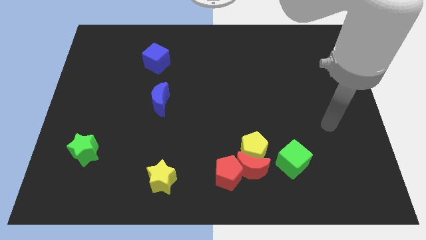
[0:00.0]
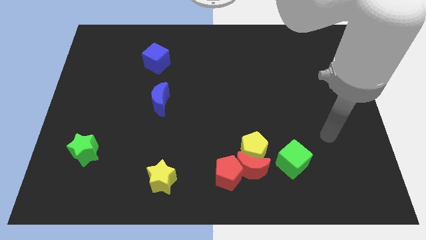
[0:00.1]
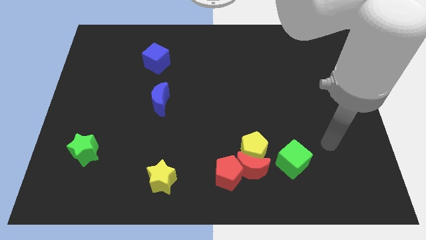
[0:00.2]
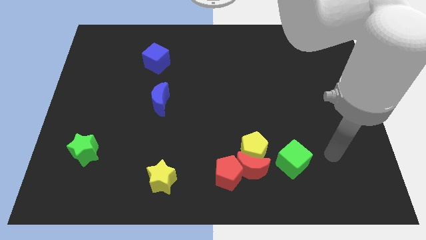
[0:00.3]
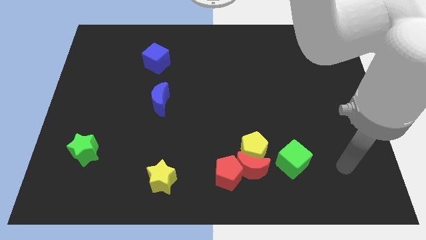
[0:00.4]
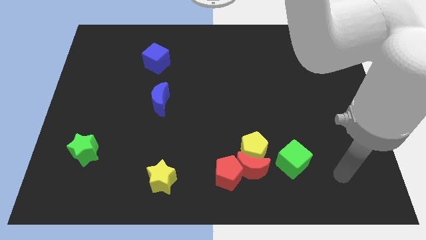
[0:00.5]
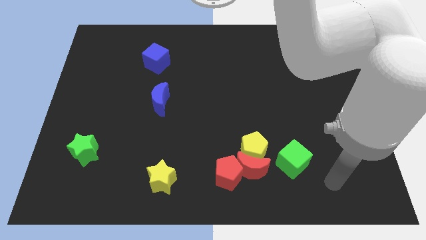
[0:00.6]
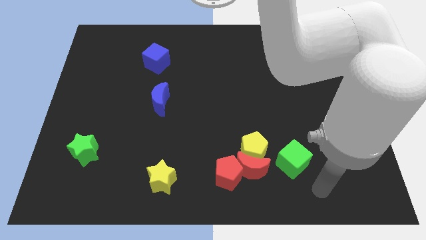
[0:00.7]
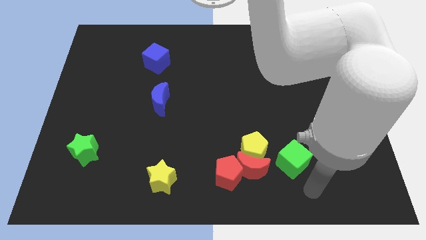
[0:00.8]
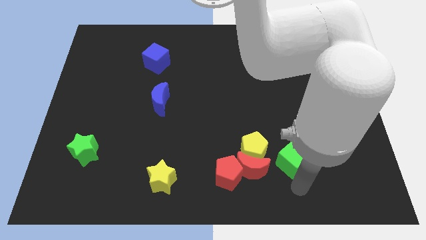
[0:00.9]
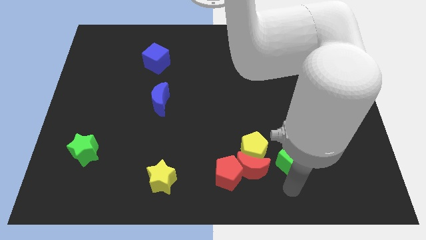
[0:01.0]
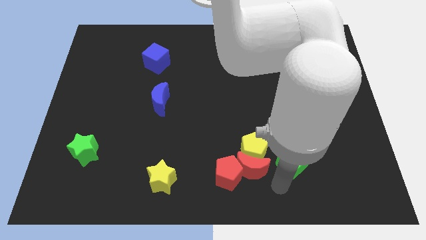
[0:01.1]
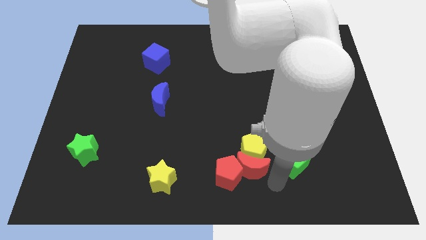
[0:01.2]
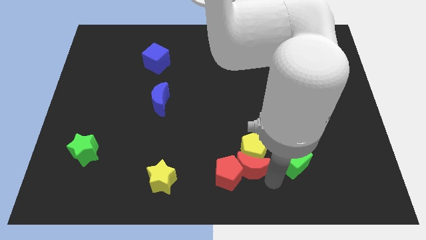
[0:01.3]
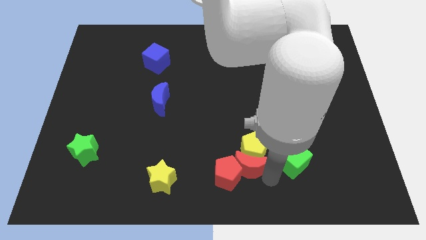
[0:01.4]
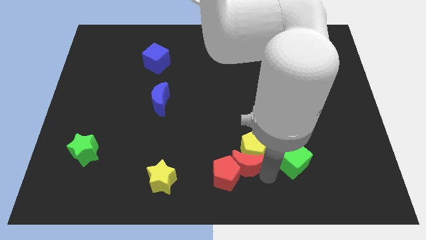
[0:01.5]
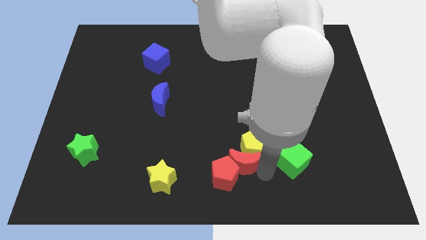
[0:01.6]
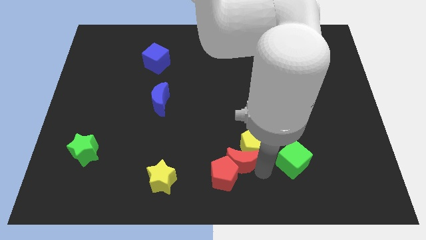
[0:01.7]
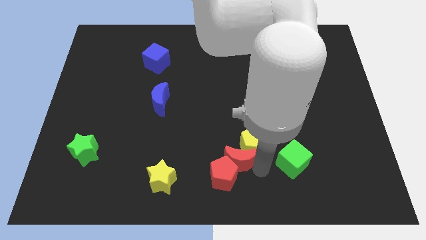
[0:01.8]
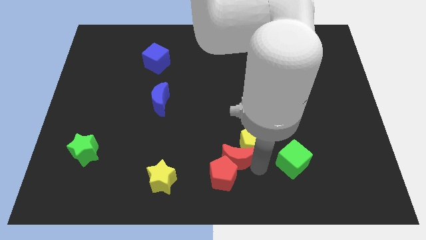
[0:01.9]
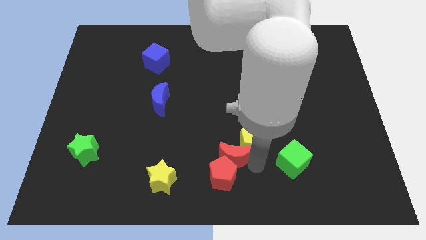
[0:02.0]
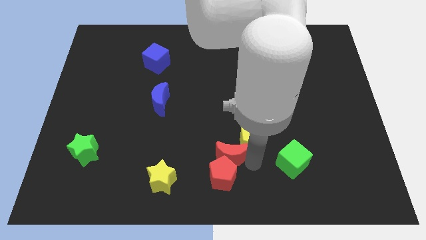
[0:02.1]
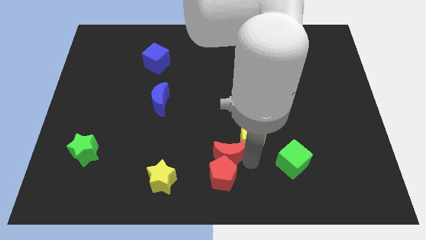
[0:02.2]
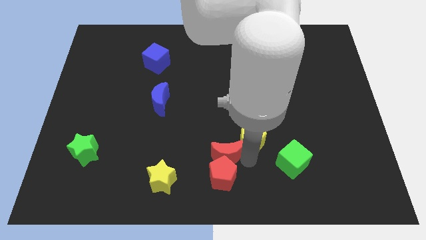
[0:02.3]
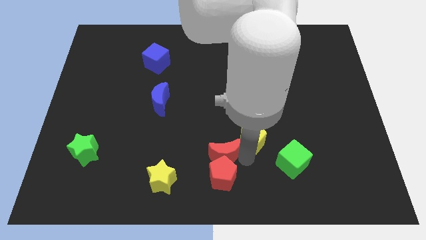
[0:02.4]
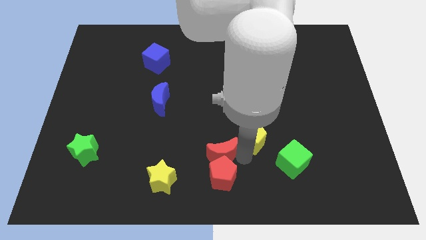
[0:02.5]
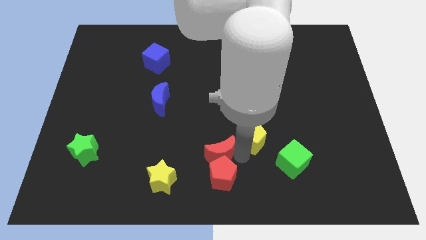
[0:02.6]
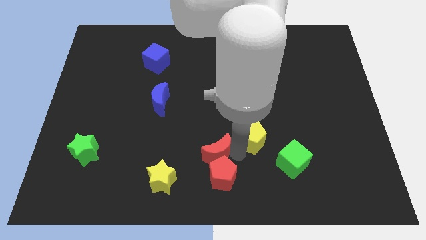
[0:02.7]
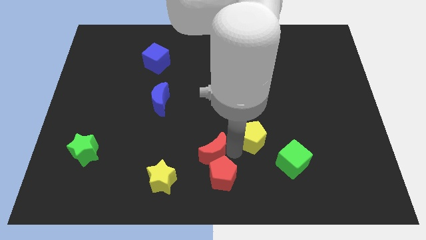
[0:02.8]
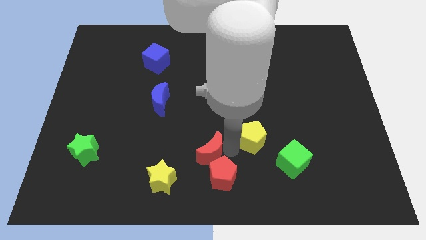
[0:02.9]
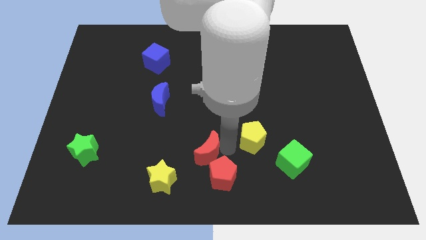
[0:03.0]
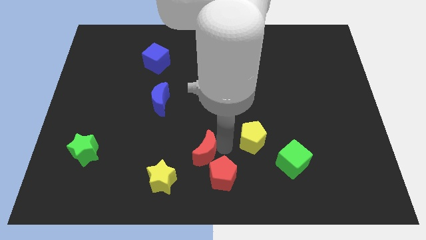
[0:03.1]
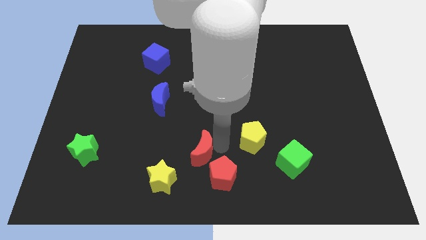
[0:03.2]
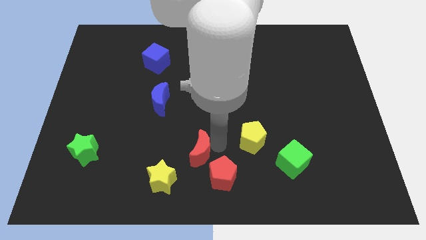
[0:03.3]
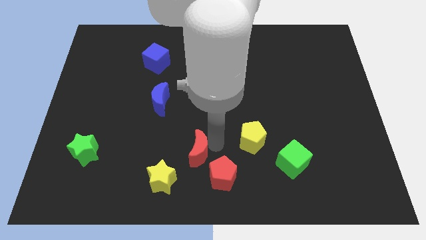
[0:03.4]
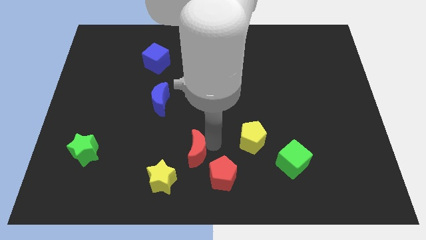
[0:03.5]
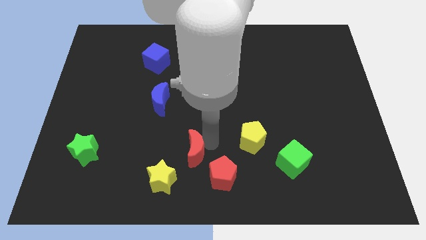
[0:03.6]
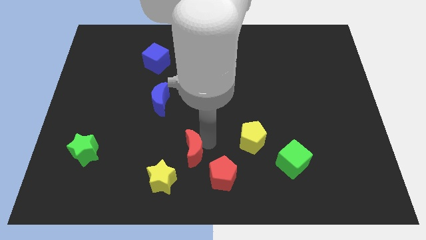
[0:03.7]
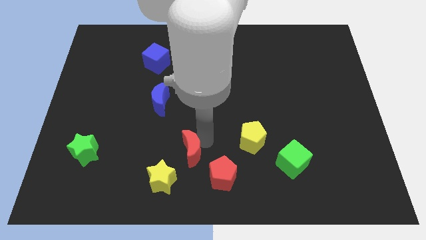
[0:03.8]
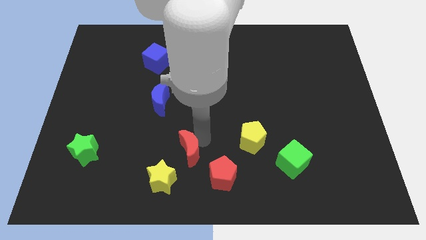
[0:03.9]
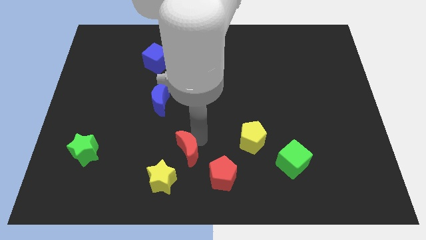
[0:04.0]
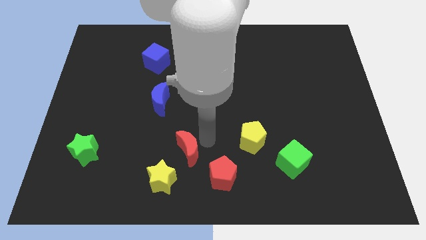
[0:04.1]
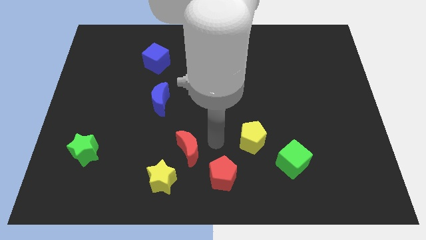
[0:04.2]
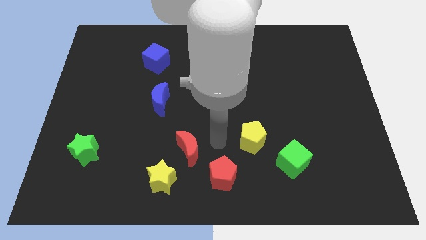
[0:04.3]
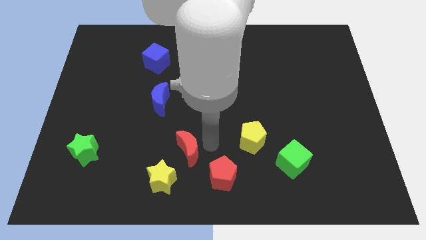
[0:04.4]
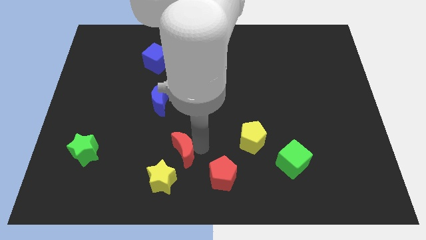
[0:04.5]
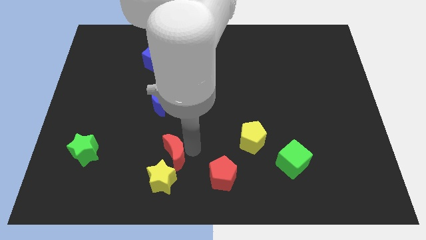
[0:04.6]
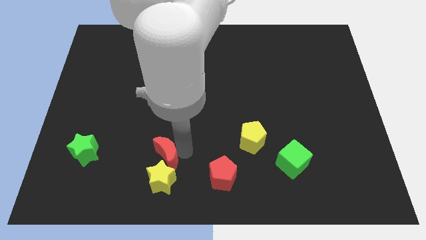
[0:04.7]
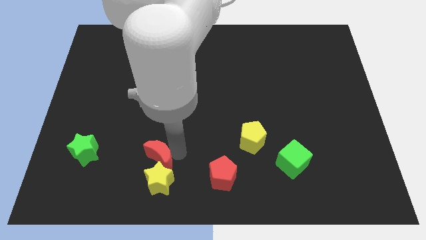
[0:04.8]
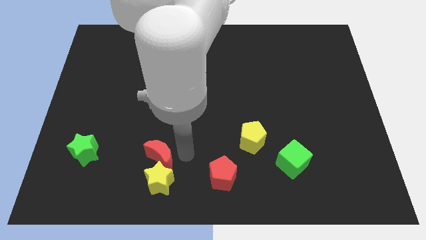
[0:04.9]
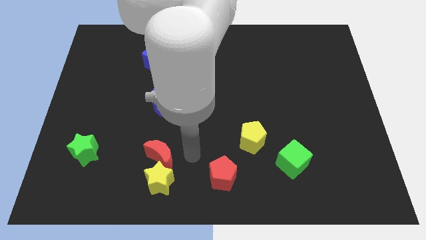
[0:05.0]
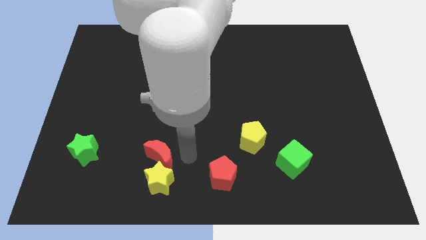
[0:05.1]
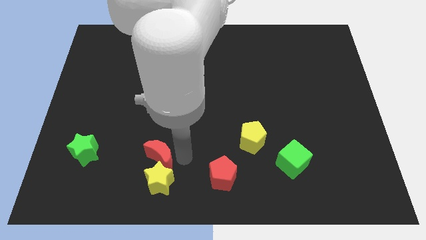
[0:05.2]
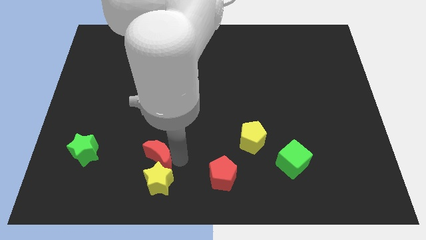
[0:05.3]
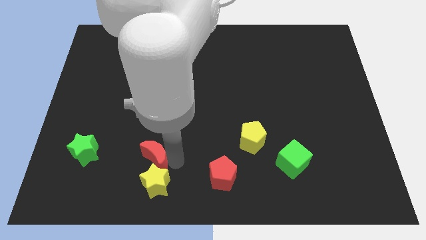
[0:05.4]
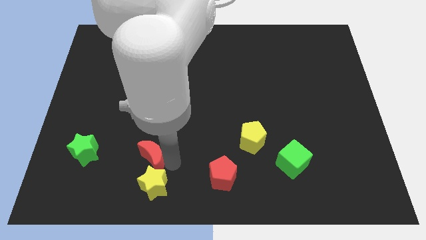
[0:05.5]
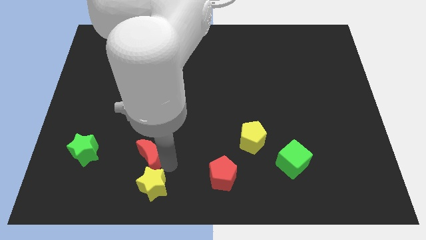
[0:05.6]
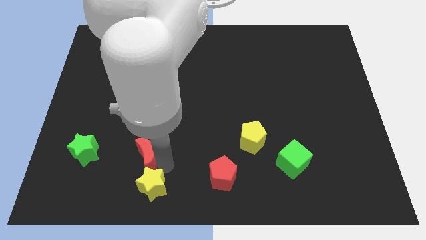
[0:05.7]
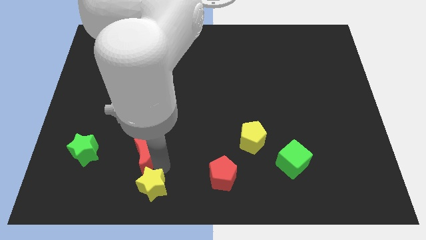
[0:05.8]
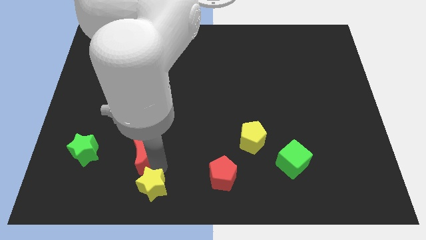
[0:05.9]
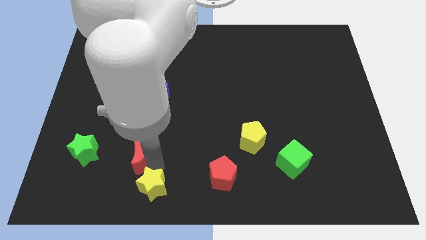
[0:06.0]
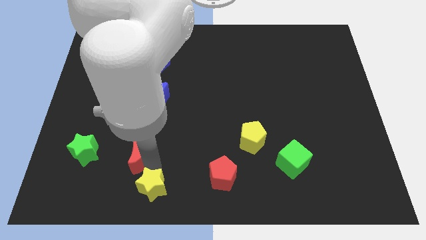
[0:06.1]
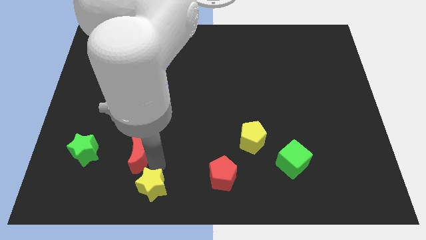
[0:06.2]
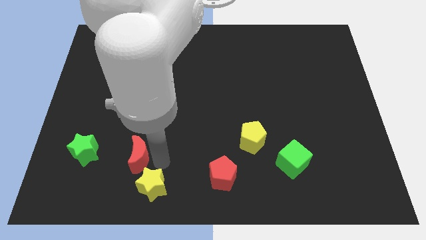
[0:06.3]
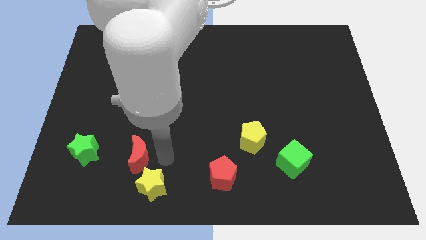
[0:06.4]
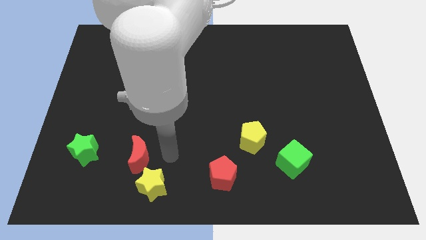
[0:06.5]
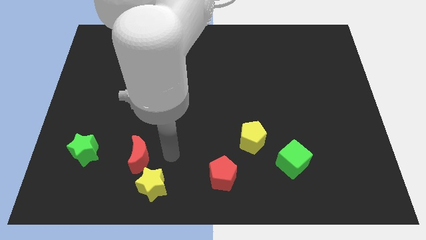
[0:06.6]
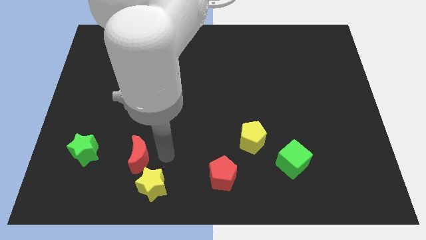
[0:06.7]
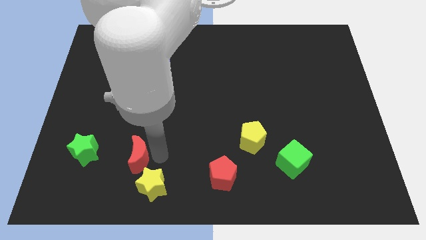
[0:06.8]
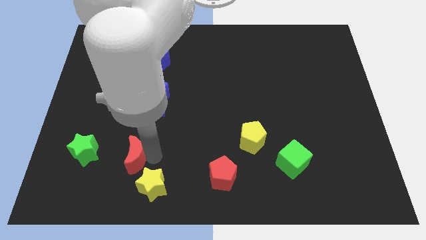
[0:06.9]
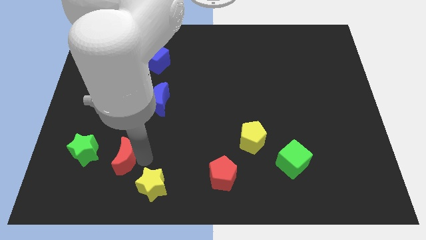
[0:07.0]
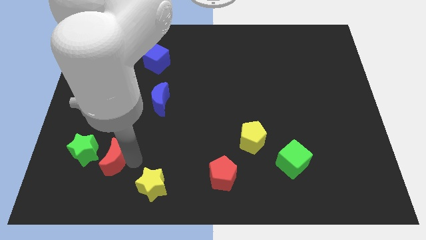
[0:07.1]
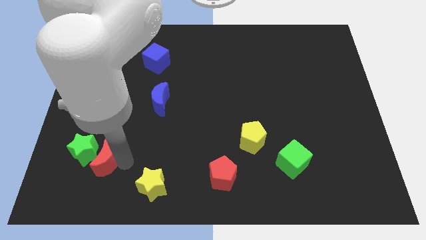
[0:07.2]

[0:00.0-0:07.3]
put the red moon next to the green star
